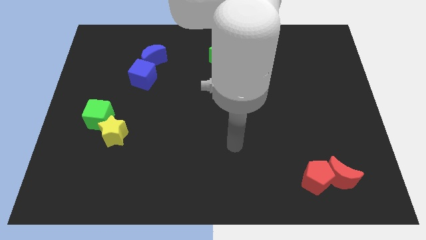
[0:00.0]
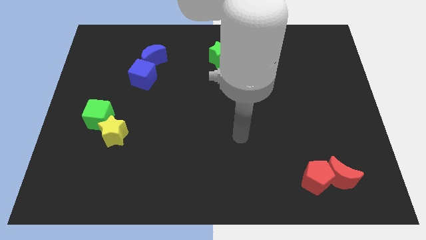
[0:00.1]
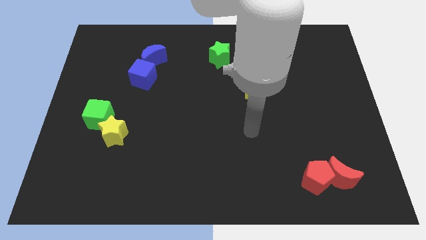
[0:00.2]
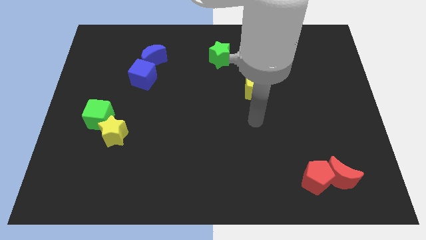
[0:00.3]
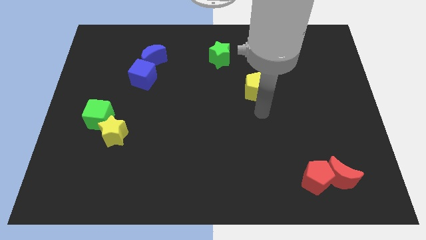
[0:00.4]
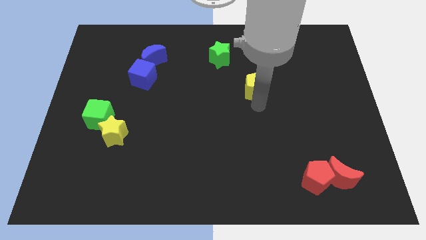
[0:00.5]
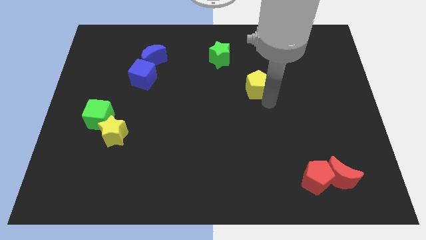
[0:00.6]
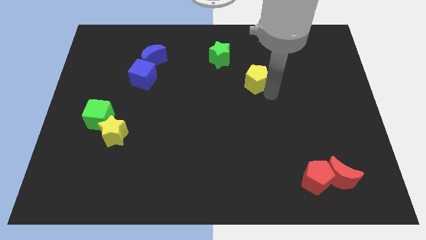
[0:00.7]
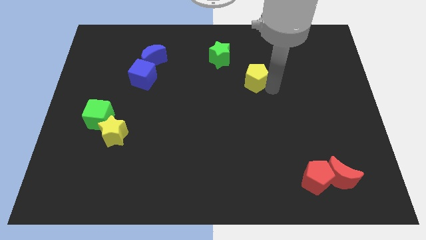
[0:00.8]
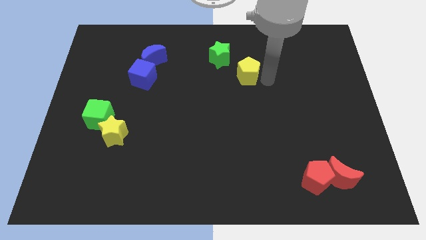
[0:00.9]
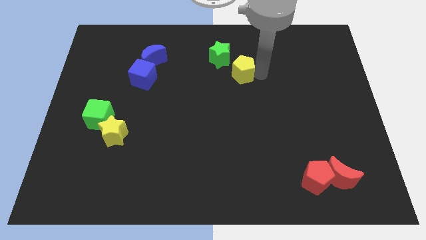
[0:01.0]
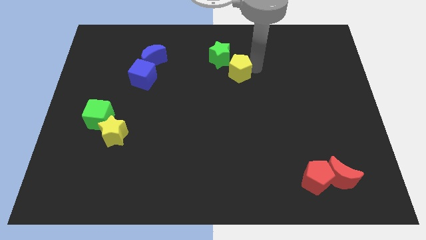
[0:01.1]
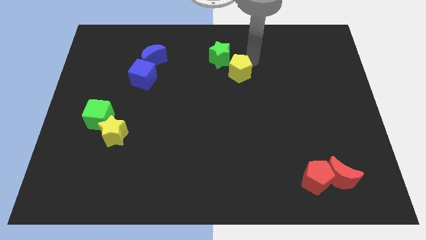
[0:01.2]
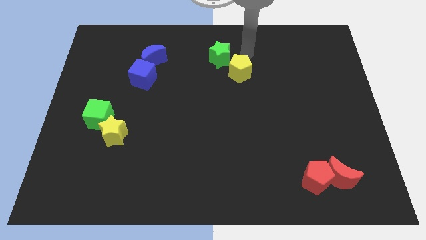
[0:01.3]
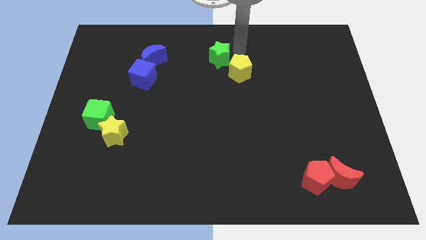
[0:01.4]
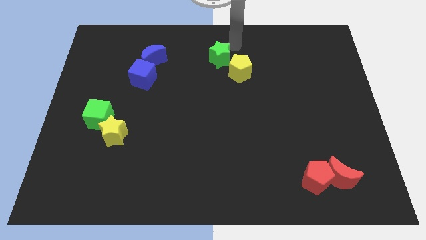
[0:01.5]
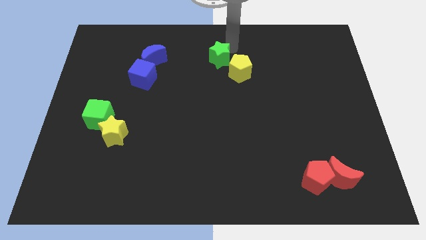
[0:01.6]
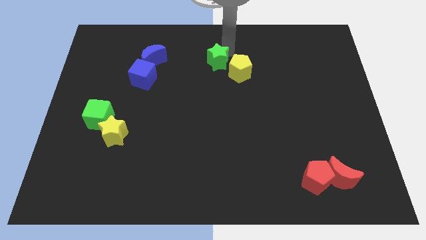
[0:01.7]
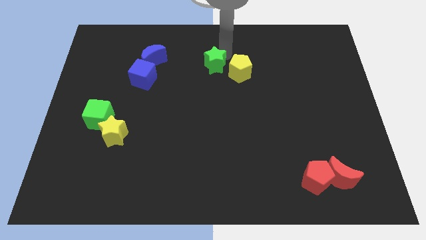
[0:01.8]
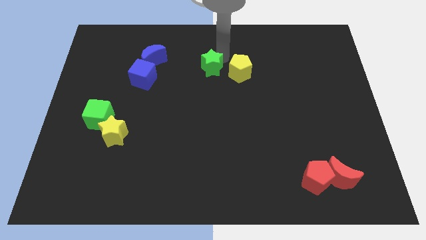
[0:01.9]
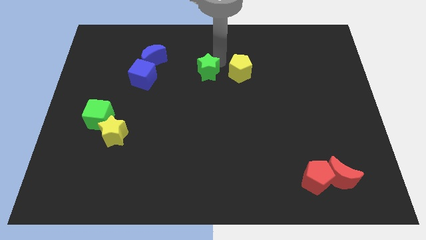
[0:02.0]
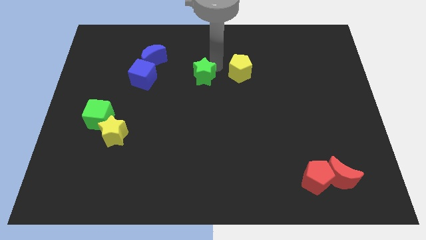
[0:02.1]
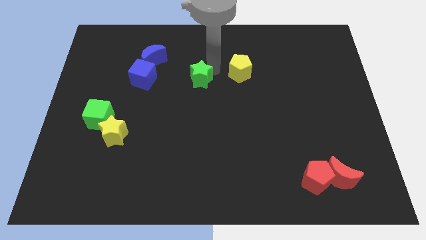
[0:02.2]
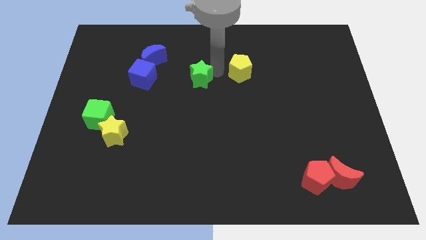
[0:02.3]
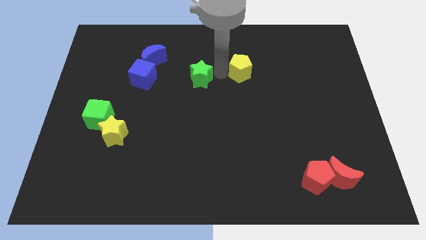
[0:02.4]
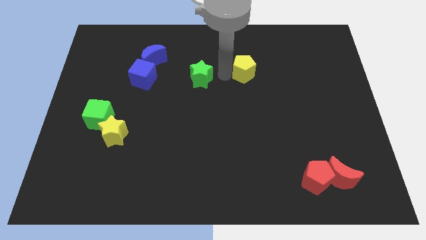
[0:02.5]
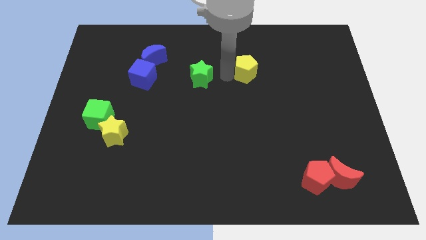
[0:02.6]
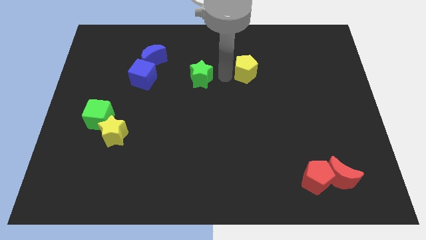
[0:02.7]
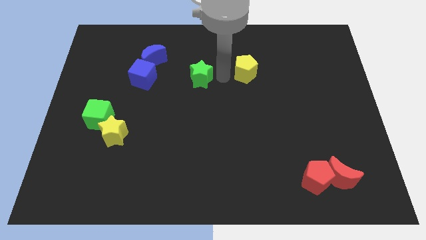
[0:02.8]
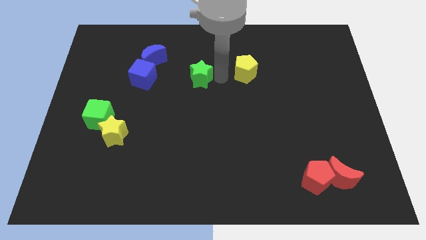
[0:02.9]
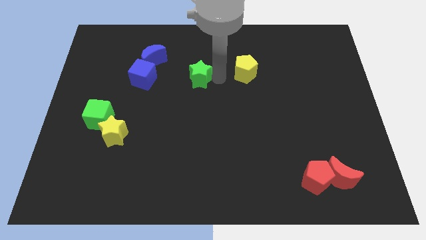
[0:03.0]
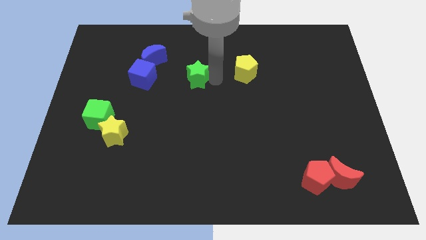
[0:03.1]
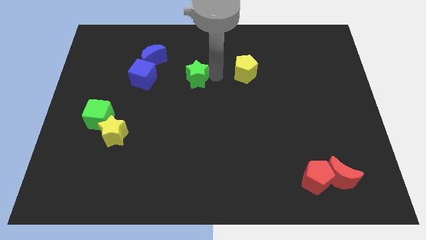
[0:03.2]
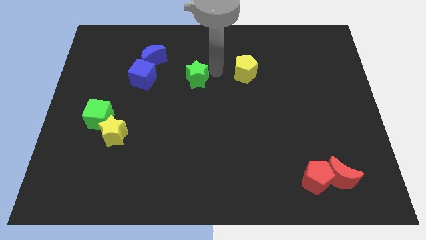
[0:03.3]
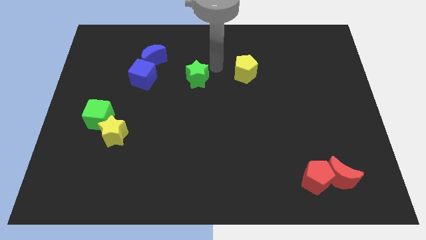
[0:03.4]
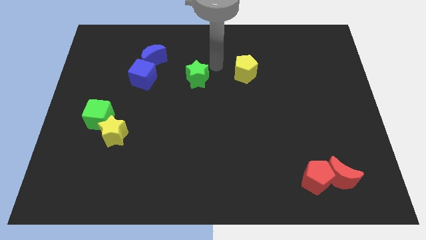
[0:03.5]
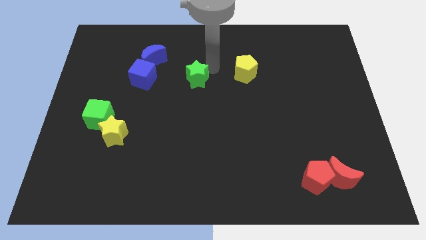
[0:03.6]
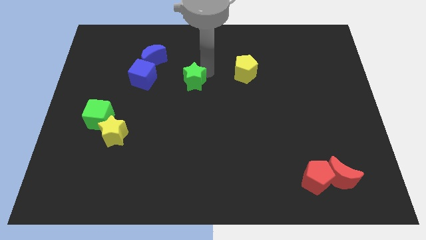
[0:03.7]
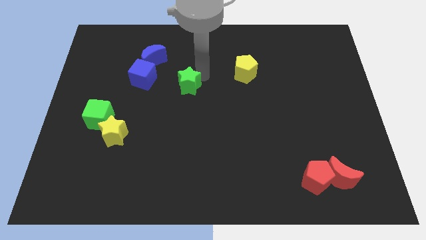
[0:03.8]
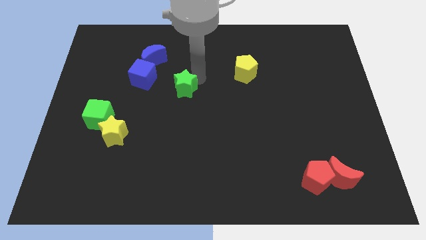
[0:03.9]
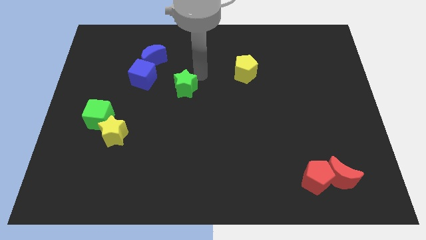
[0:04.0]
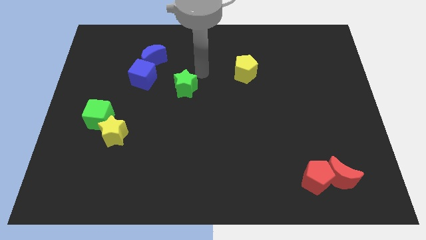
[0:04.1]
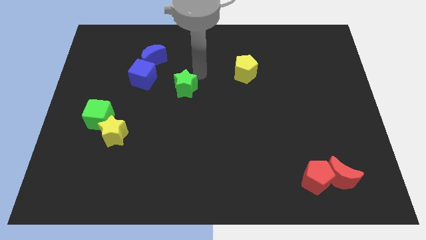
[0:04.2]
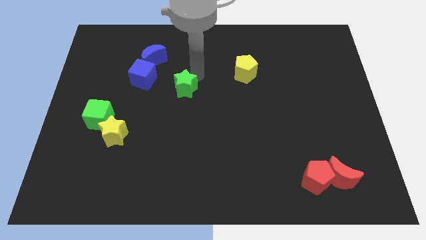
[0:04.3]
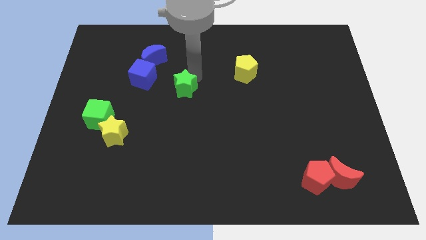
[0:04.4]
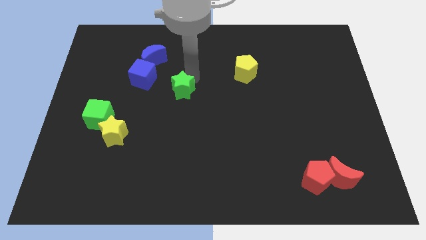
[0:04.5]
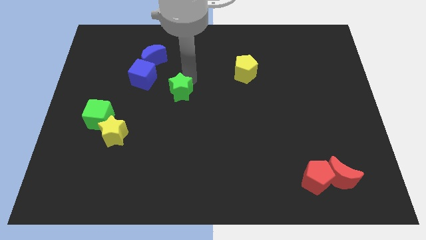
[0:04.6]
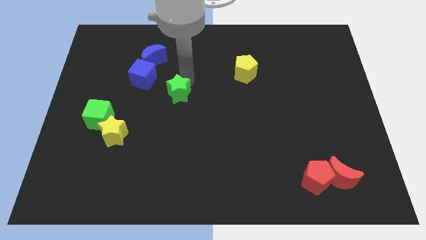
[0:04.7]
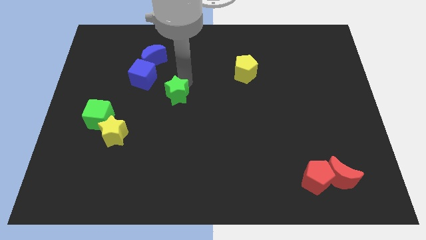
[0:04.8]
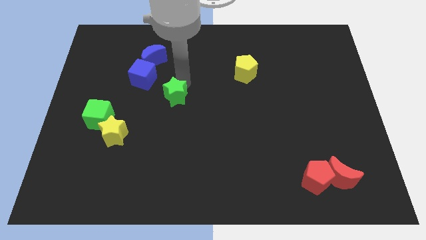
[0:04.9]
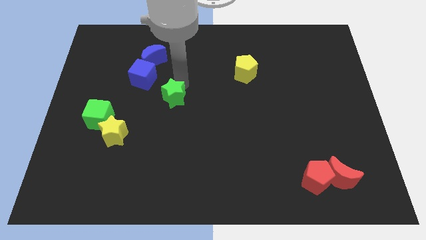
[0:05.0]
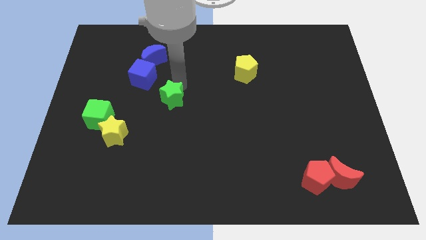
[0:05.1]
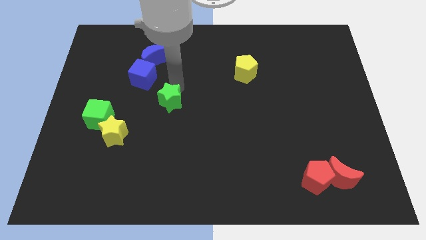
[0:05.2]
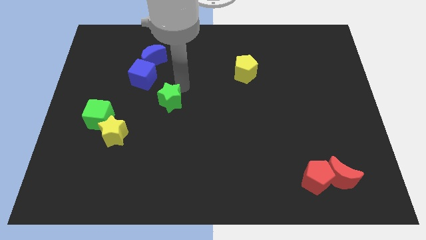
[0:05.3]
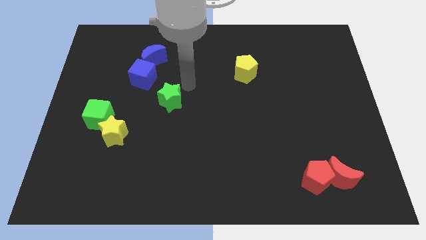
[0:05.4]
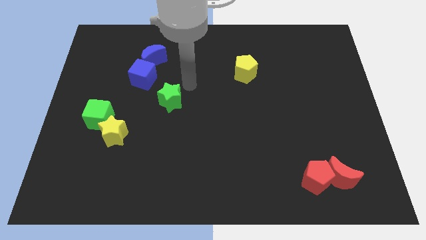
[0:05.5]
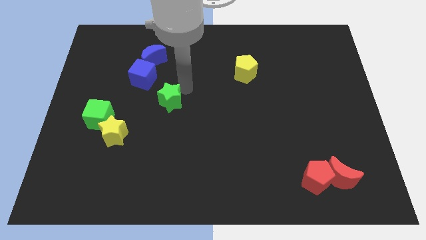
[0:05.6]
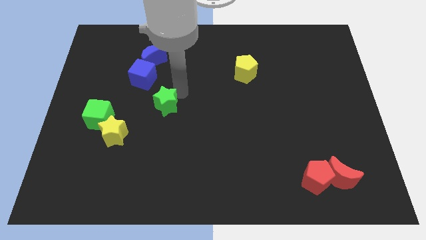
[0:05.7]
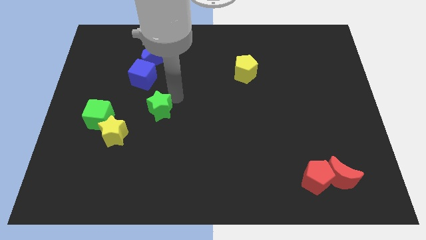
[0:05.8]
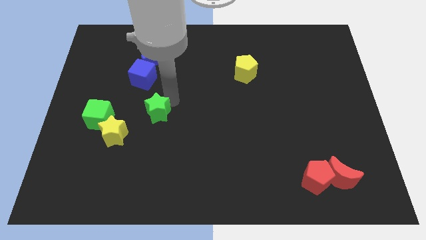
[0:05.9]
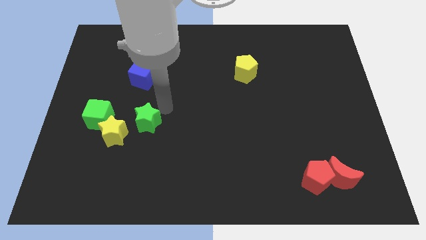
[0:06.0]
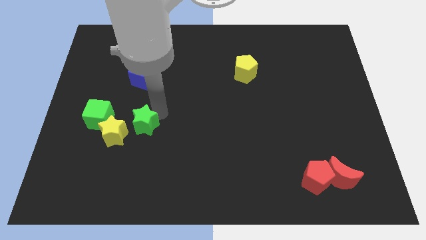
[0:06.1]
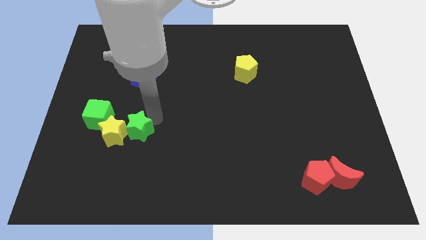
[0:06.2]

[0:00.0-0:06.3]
slide the green star to the bottom right side of the green cube

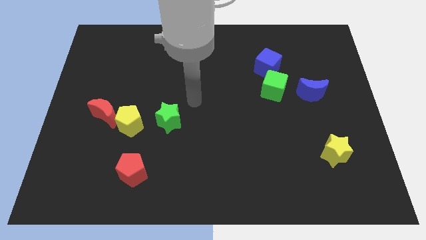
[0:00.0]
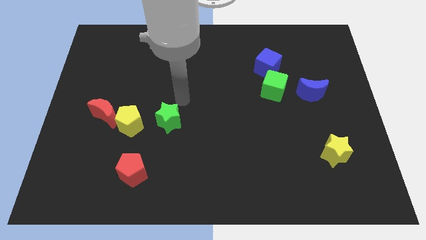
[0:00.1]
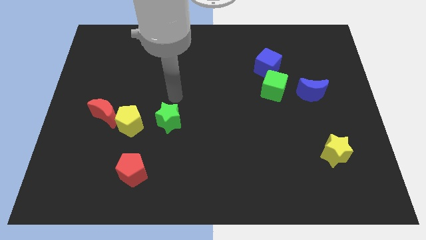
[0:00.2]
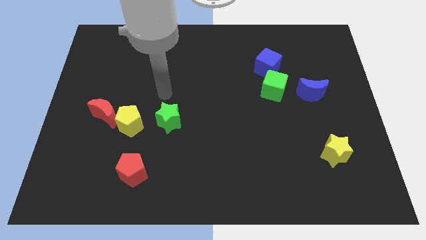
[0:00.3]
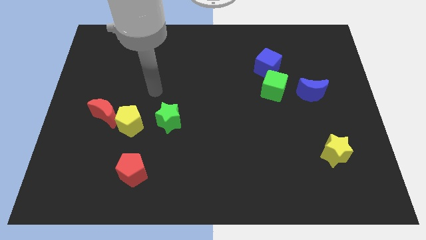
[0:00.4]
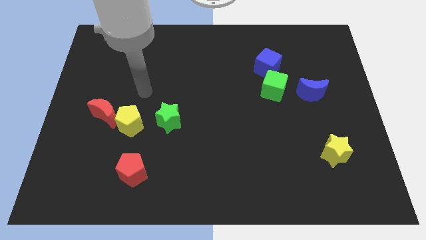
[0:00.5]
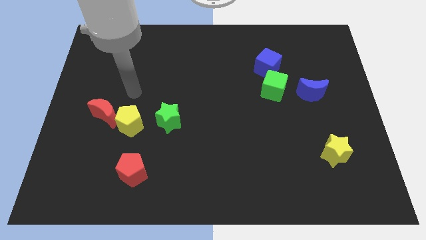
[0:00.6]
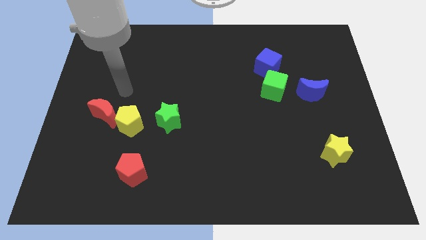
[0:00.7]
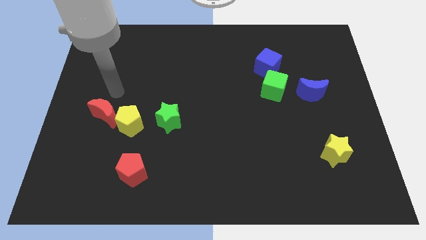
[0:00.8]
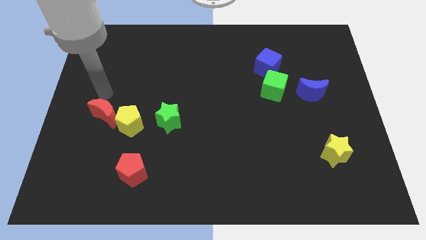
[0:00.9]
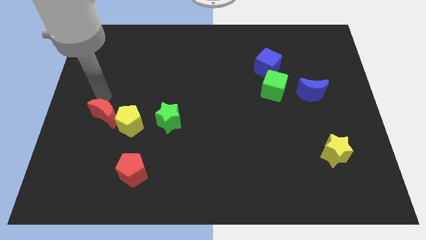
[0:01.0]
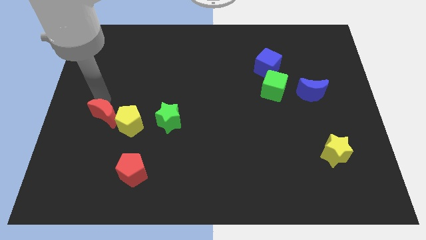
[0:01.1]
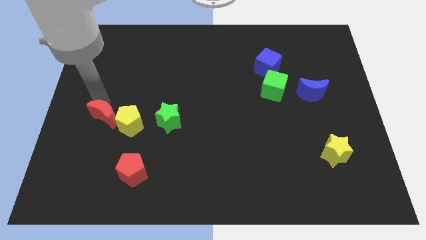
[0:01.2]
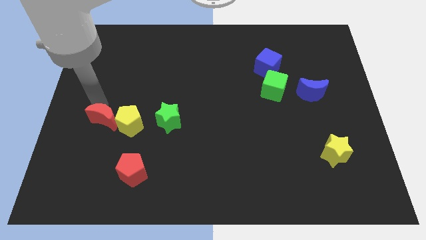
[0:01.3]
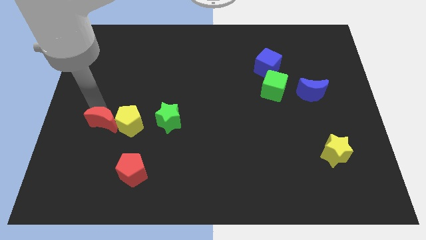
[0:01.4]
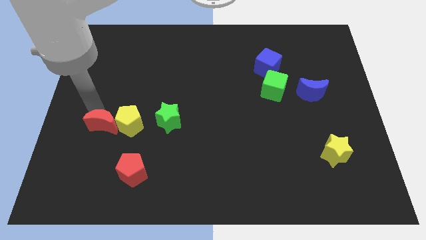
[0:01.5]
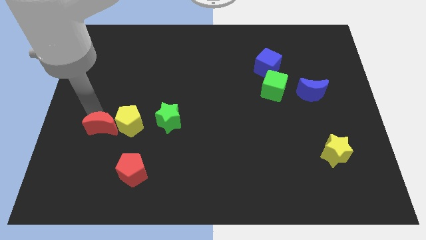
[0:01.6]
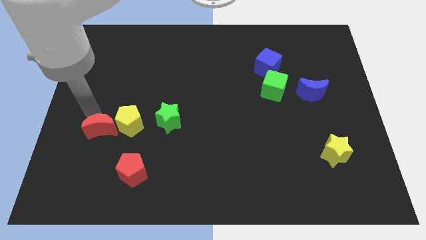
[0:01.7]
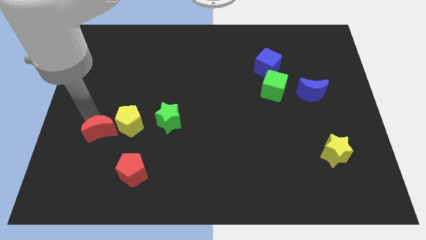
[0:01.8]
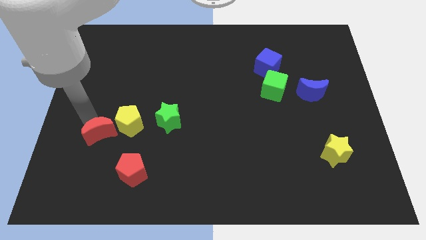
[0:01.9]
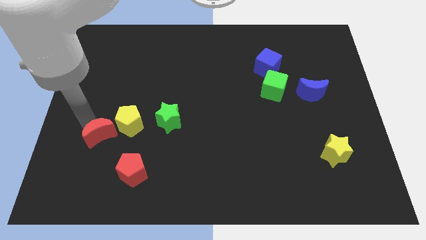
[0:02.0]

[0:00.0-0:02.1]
push the red moon diagonally up and to the left of the red pentagon
